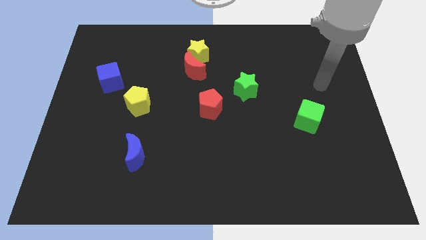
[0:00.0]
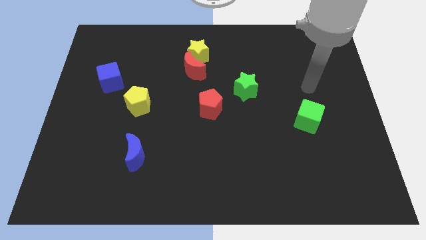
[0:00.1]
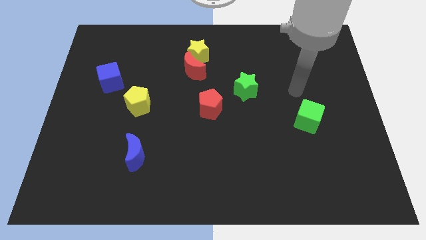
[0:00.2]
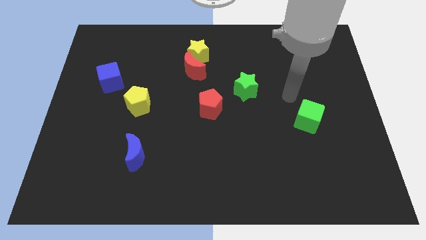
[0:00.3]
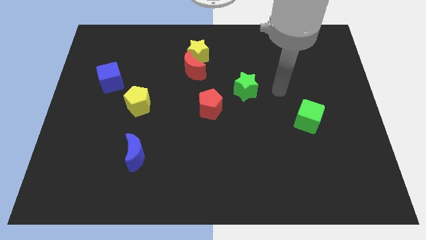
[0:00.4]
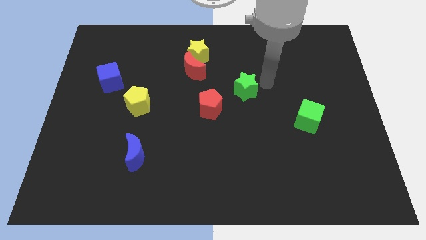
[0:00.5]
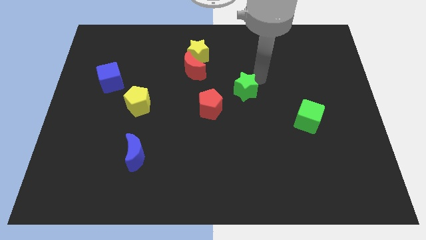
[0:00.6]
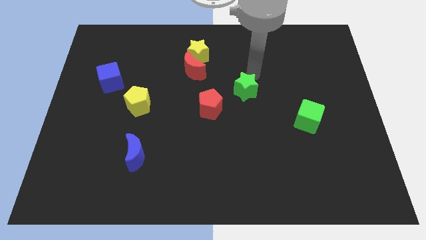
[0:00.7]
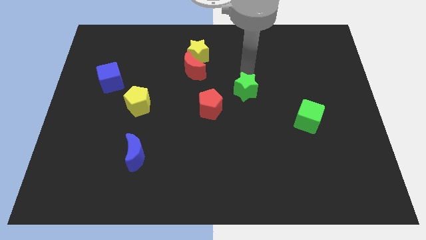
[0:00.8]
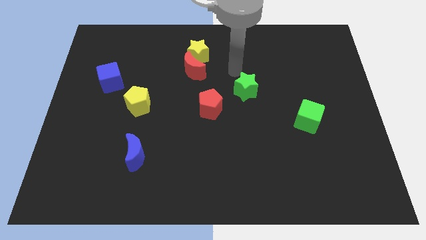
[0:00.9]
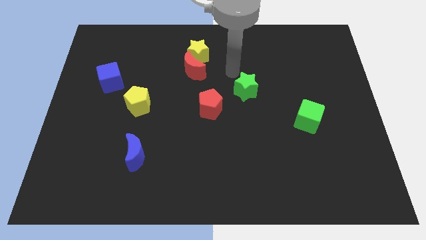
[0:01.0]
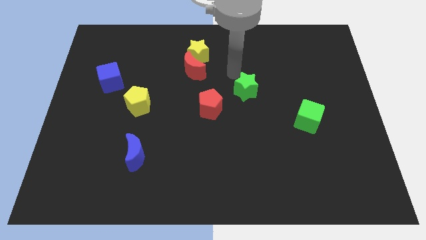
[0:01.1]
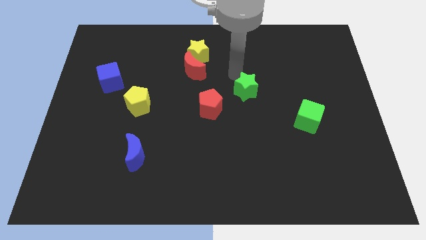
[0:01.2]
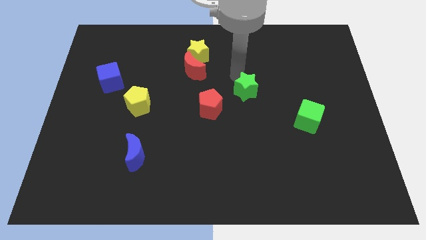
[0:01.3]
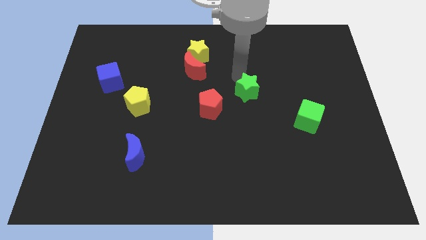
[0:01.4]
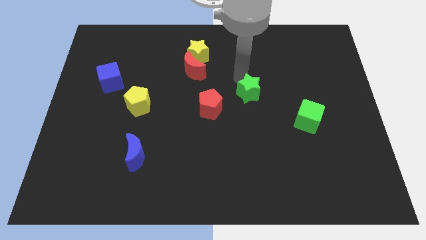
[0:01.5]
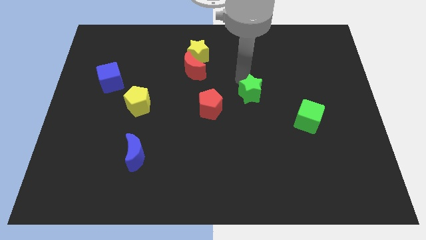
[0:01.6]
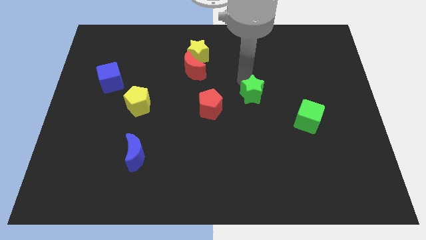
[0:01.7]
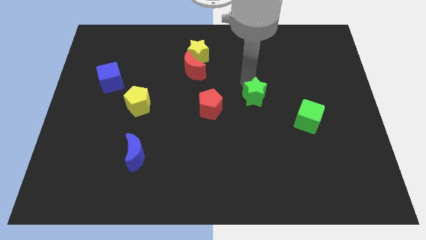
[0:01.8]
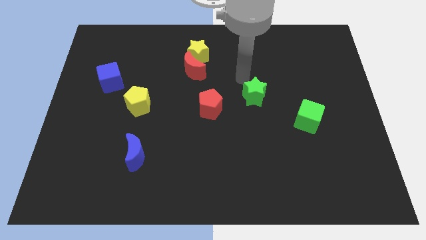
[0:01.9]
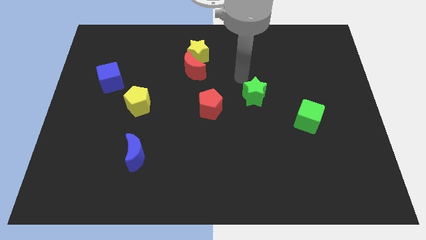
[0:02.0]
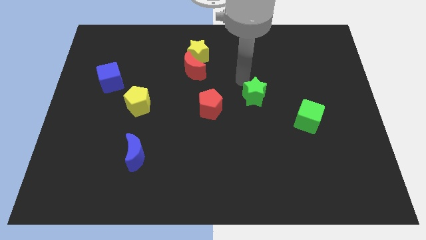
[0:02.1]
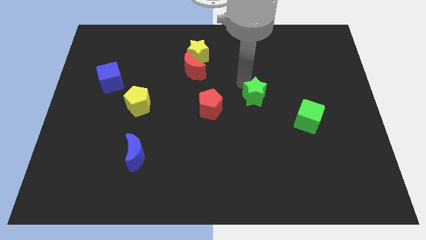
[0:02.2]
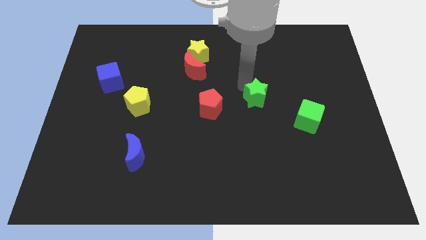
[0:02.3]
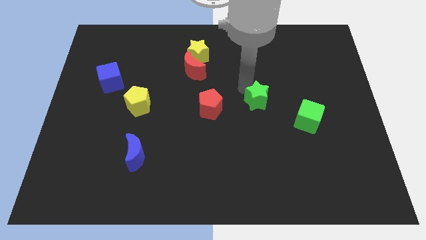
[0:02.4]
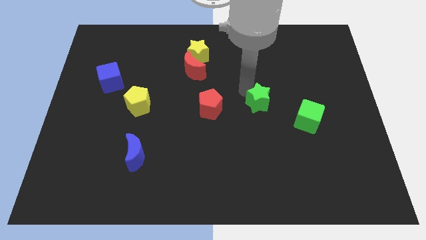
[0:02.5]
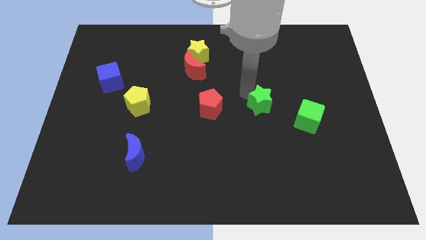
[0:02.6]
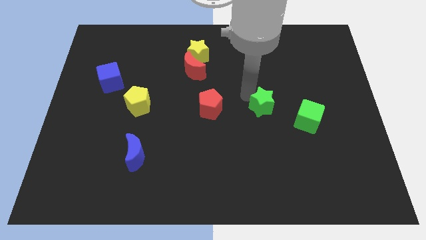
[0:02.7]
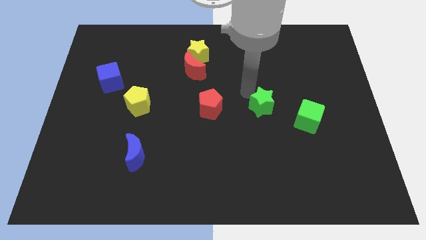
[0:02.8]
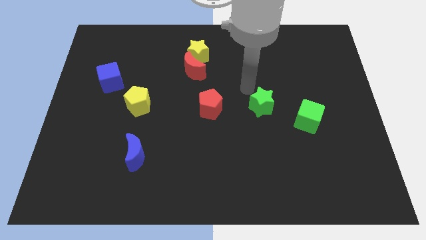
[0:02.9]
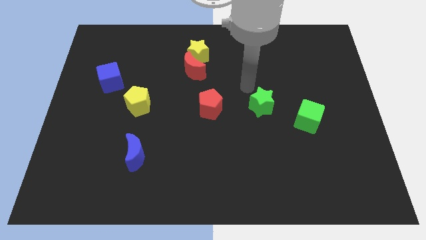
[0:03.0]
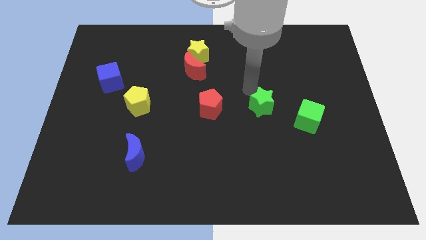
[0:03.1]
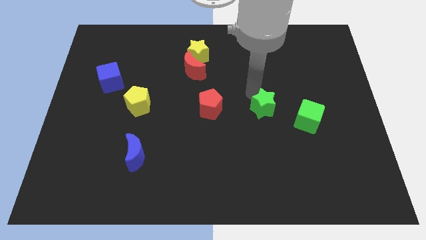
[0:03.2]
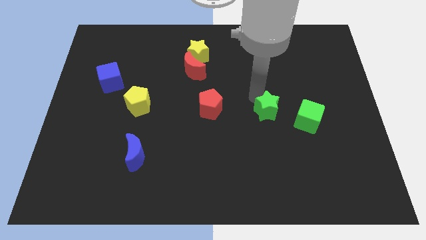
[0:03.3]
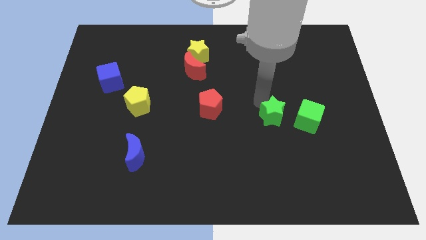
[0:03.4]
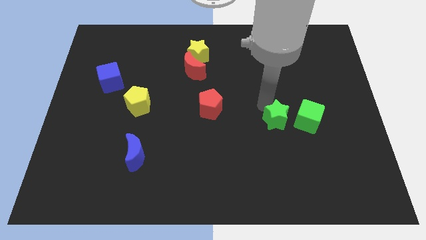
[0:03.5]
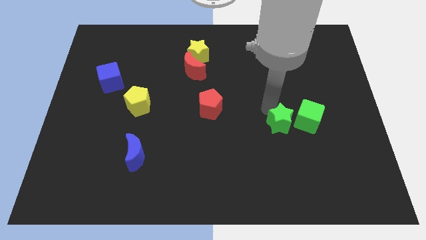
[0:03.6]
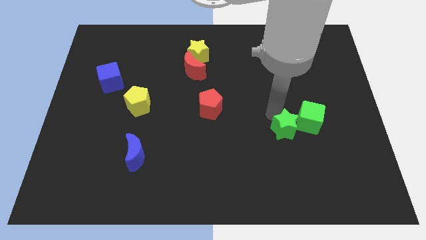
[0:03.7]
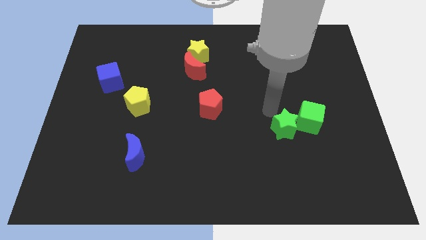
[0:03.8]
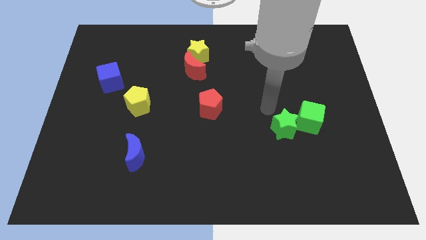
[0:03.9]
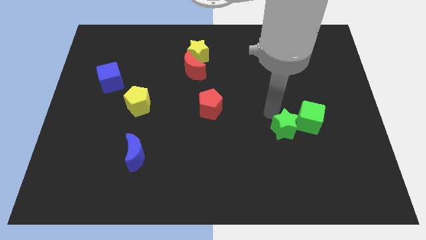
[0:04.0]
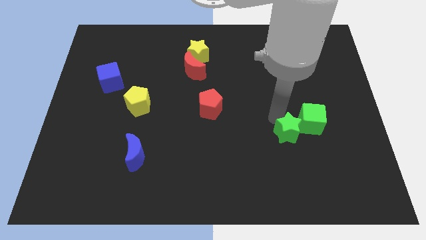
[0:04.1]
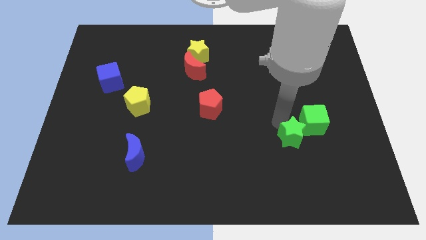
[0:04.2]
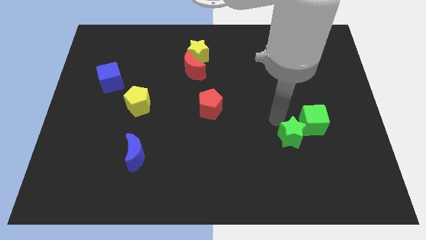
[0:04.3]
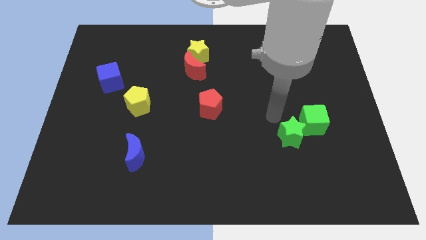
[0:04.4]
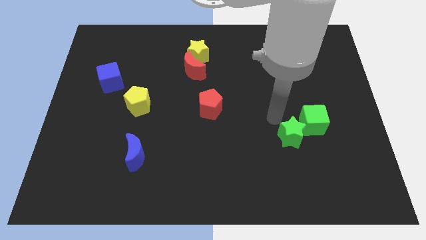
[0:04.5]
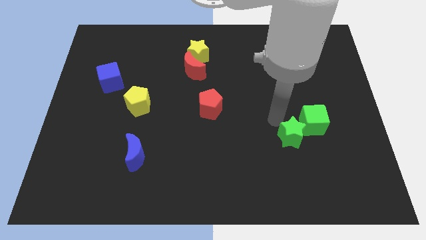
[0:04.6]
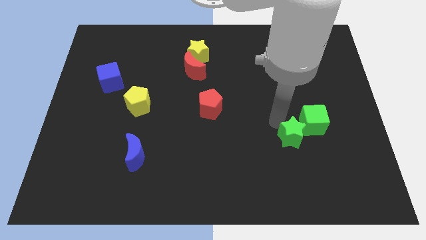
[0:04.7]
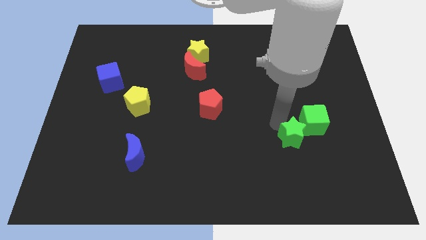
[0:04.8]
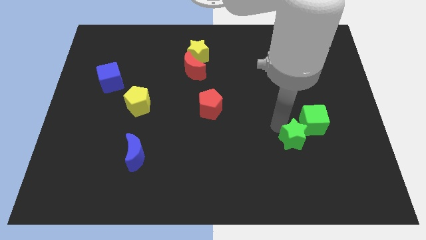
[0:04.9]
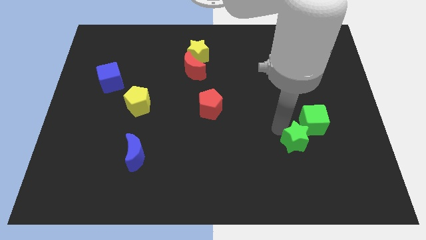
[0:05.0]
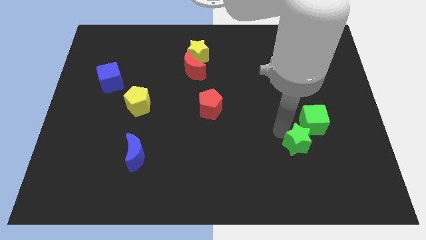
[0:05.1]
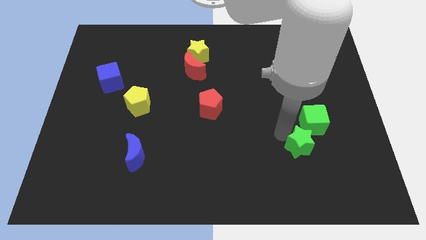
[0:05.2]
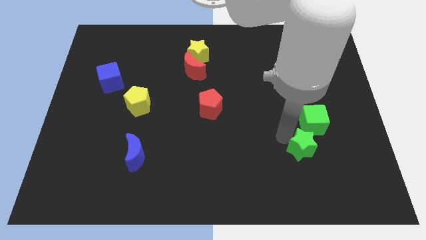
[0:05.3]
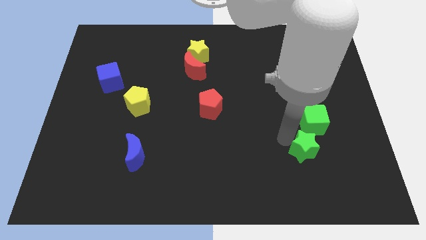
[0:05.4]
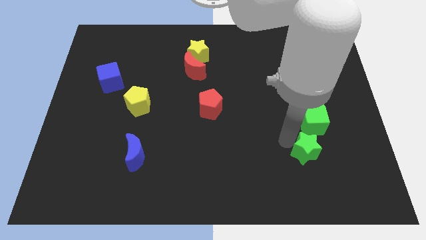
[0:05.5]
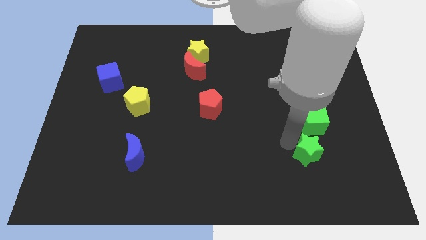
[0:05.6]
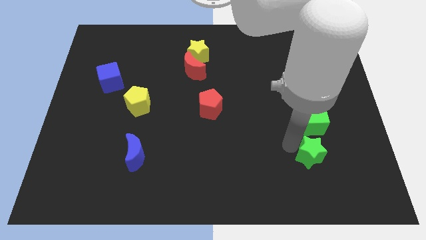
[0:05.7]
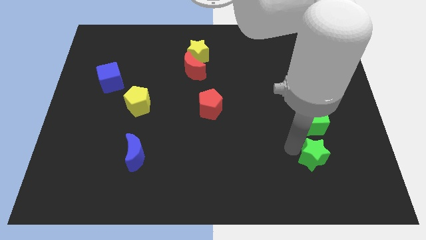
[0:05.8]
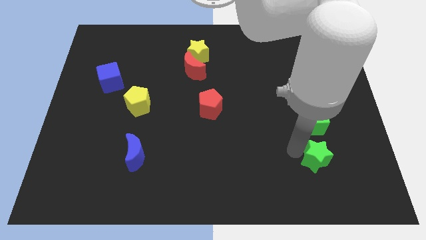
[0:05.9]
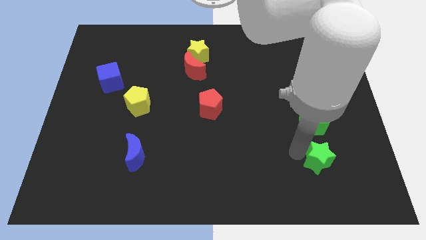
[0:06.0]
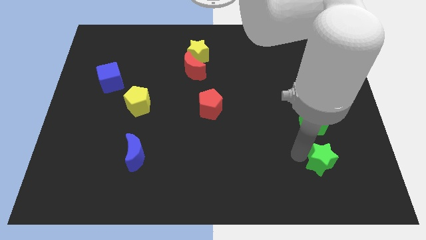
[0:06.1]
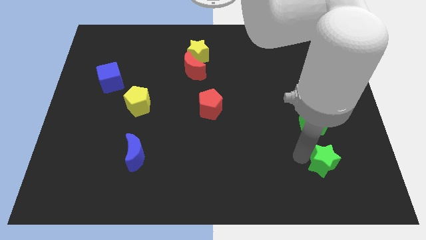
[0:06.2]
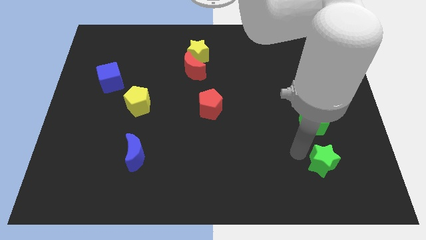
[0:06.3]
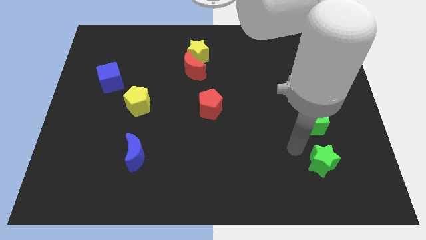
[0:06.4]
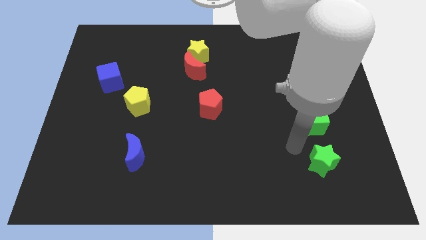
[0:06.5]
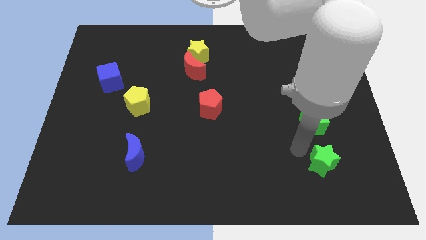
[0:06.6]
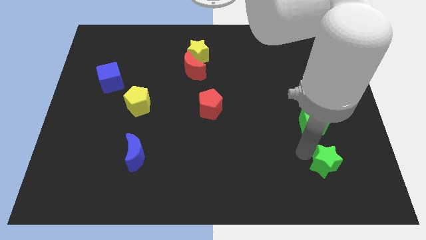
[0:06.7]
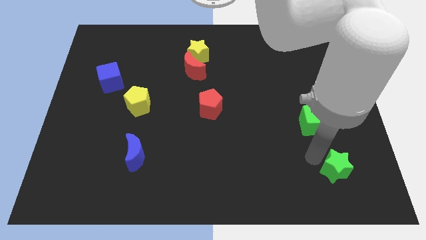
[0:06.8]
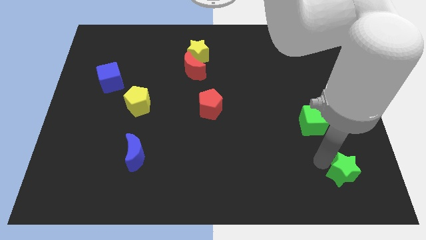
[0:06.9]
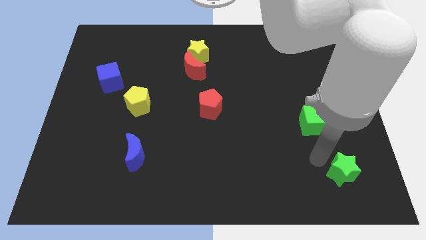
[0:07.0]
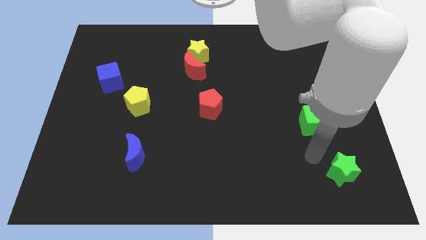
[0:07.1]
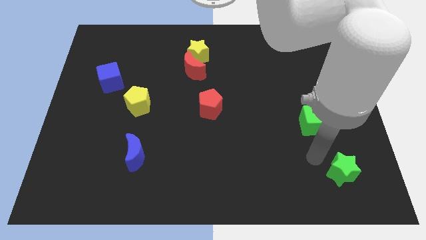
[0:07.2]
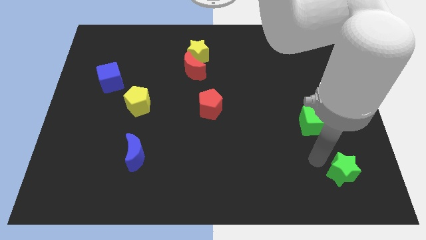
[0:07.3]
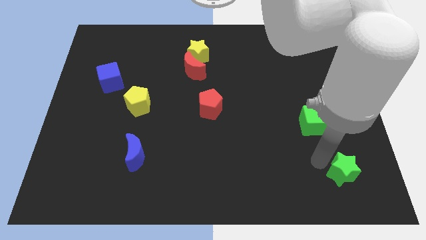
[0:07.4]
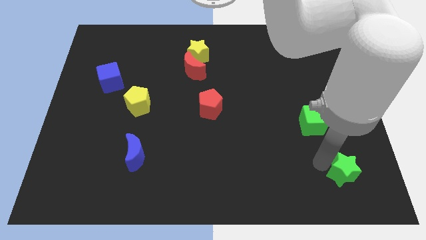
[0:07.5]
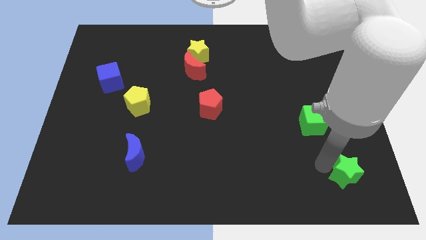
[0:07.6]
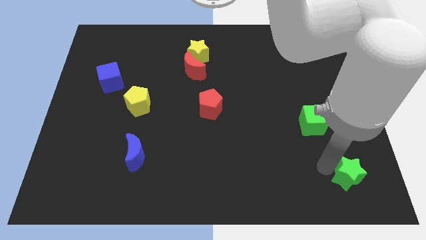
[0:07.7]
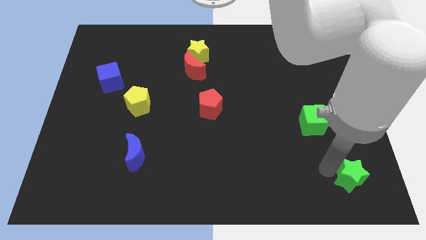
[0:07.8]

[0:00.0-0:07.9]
push the green star to the bottom right of the board
